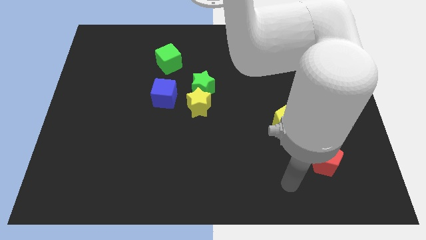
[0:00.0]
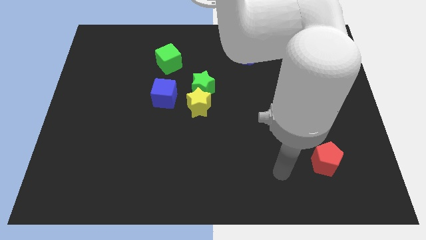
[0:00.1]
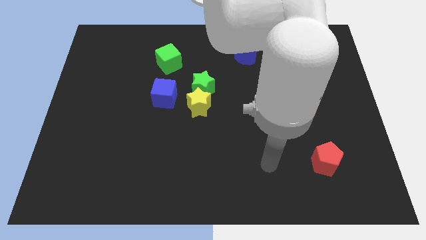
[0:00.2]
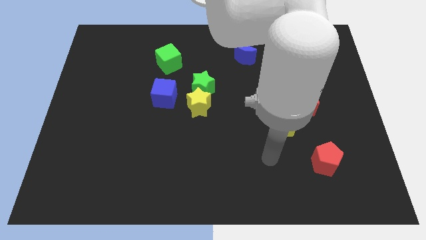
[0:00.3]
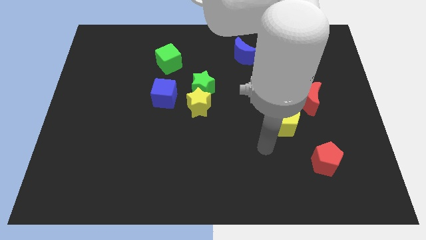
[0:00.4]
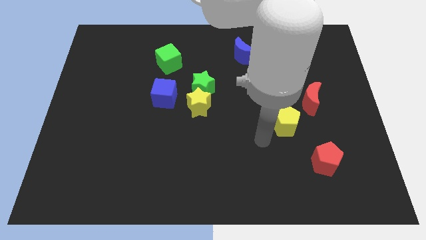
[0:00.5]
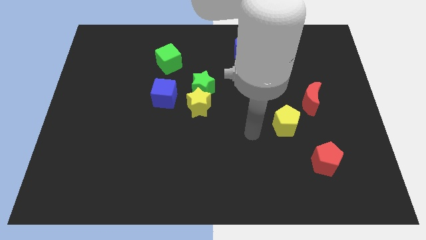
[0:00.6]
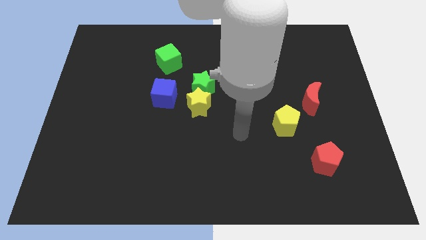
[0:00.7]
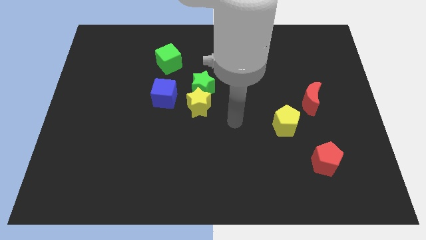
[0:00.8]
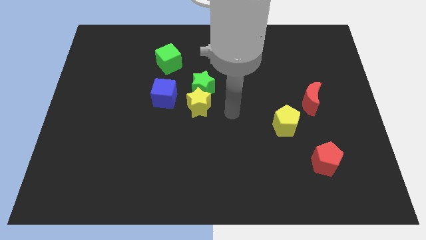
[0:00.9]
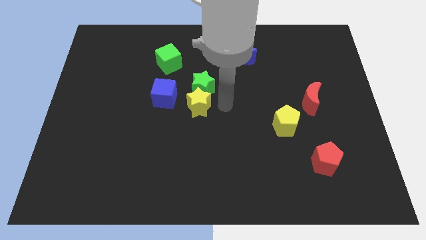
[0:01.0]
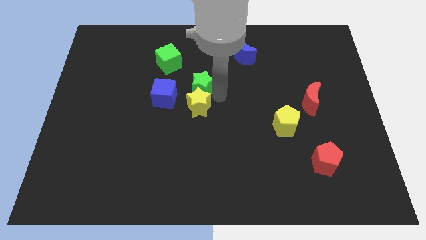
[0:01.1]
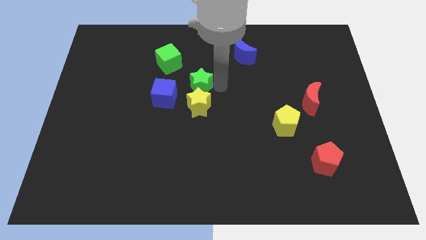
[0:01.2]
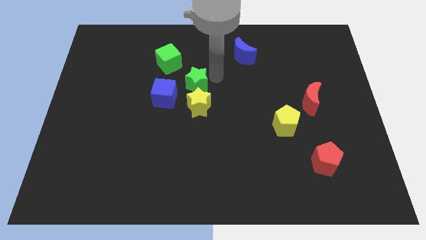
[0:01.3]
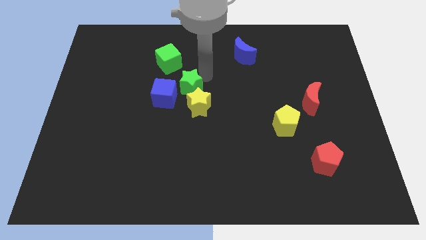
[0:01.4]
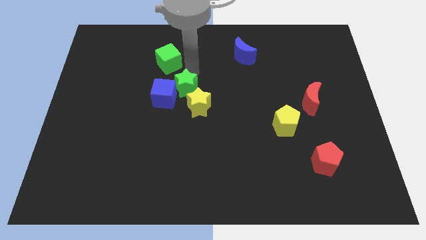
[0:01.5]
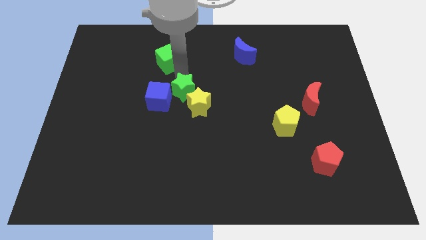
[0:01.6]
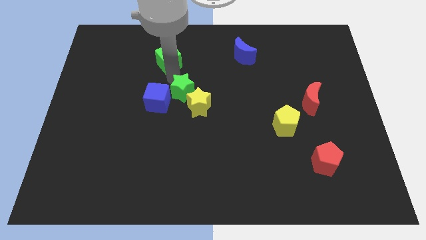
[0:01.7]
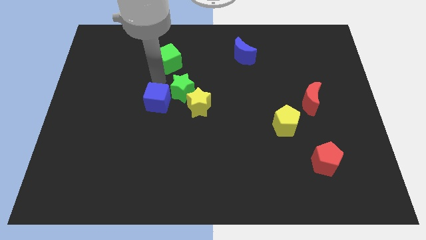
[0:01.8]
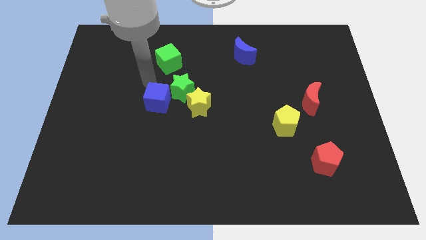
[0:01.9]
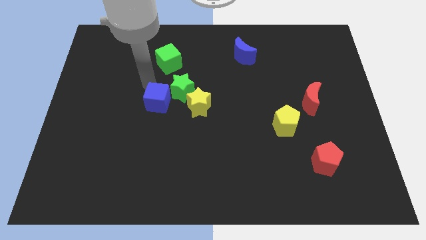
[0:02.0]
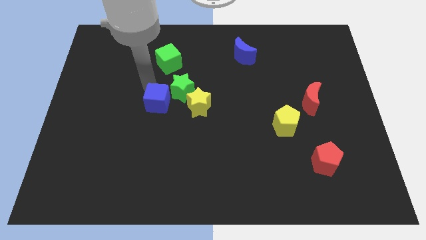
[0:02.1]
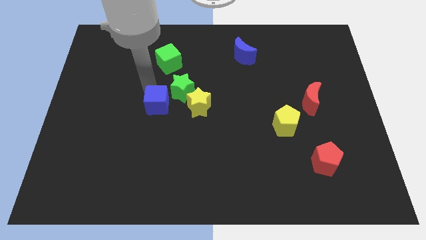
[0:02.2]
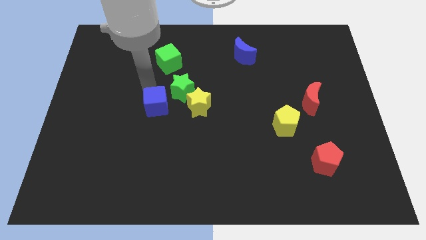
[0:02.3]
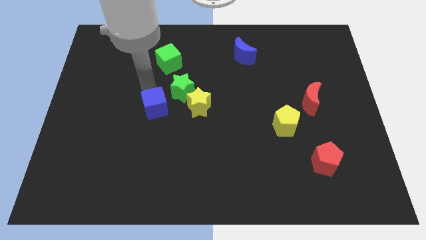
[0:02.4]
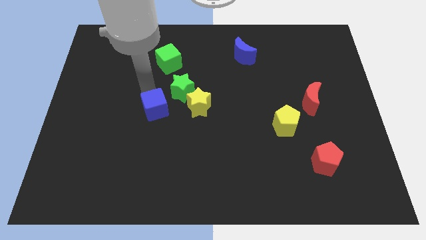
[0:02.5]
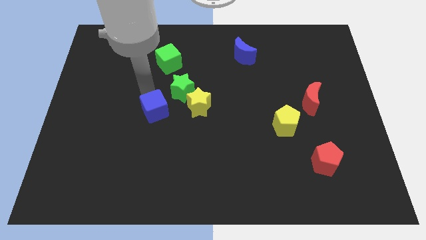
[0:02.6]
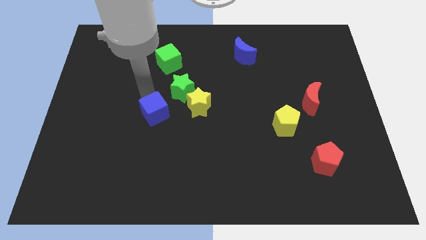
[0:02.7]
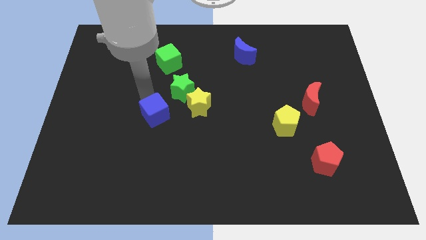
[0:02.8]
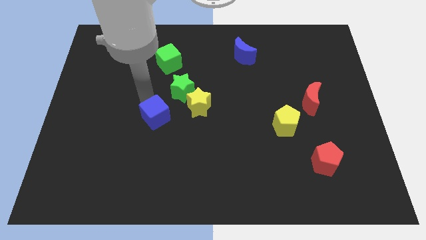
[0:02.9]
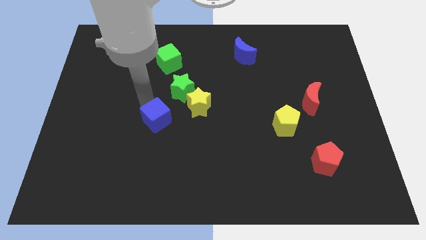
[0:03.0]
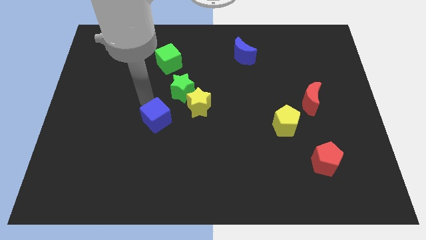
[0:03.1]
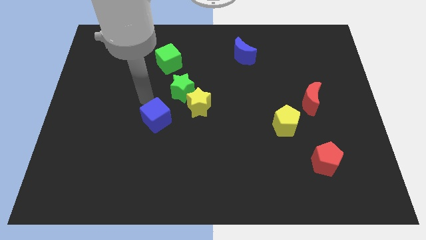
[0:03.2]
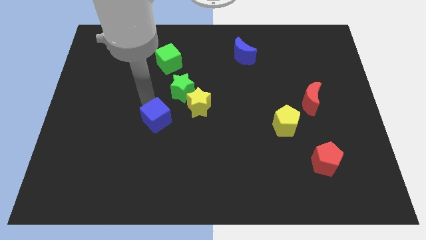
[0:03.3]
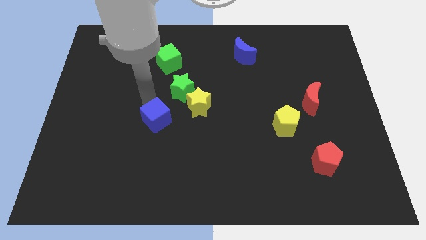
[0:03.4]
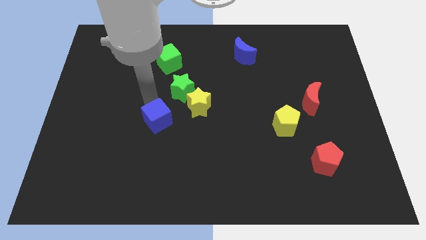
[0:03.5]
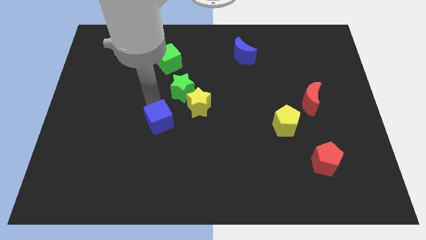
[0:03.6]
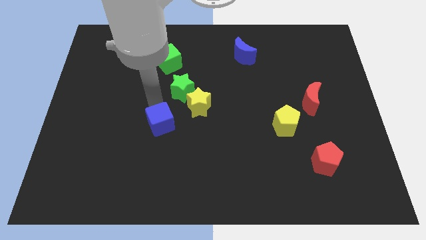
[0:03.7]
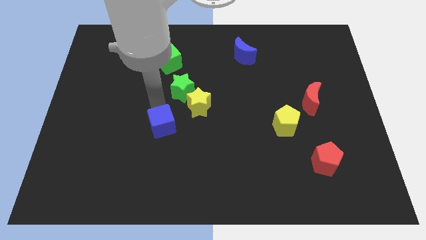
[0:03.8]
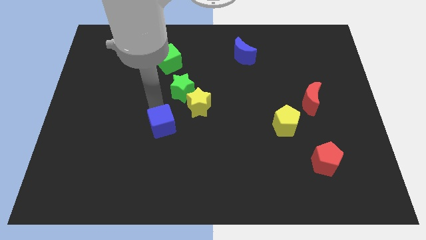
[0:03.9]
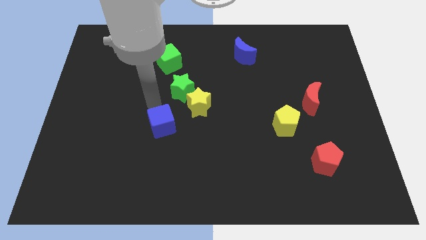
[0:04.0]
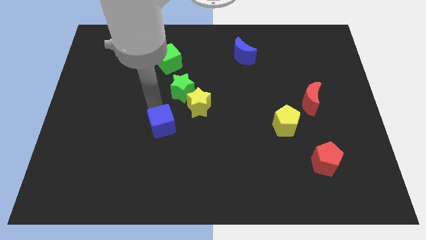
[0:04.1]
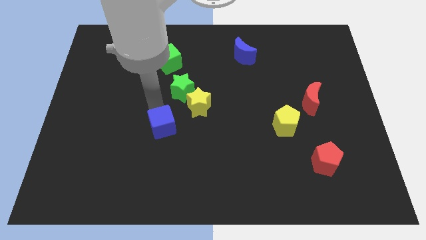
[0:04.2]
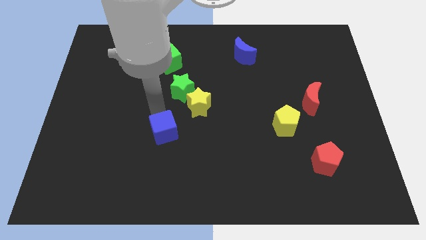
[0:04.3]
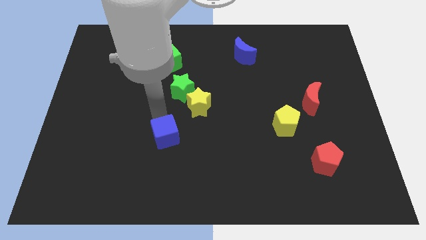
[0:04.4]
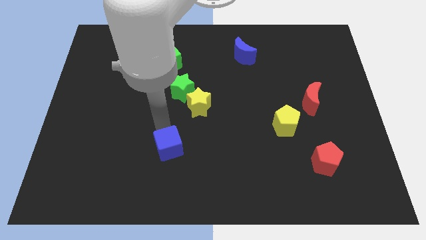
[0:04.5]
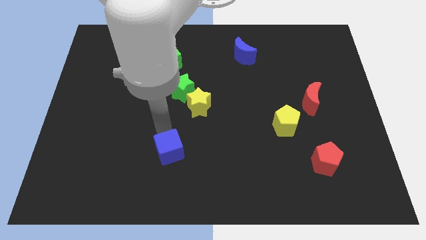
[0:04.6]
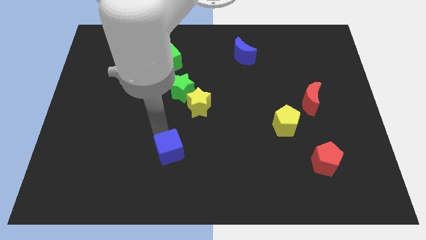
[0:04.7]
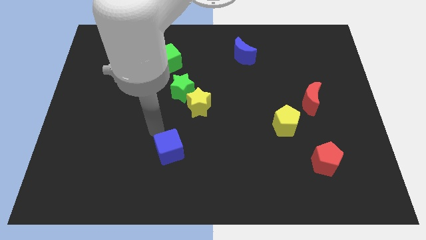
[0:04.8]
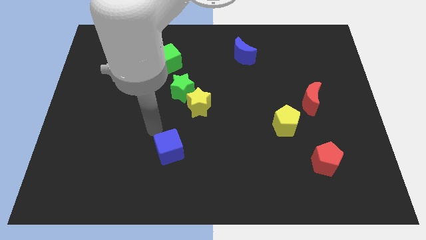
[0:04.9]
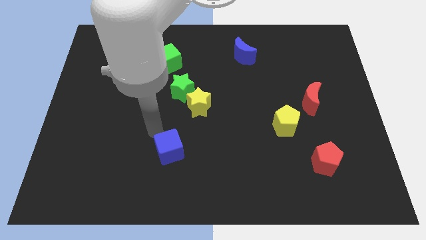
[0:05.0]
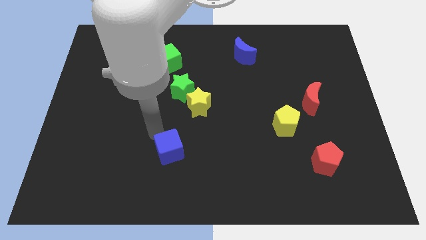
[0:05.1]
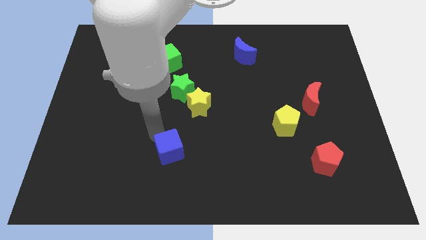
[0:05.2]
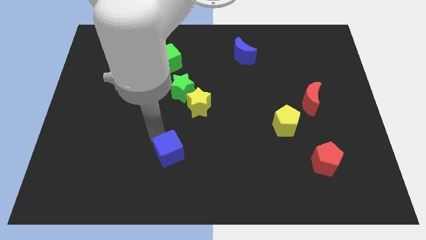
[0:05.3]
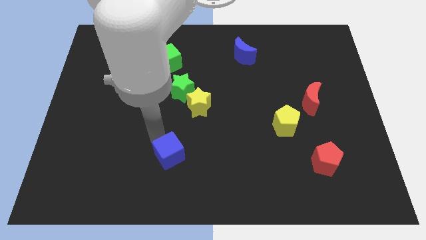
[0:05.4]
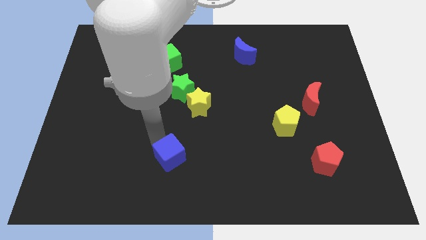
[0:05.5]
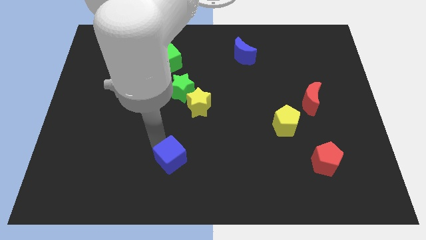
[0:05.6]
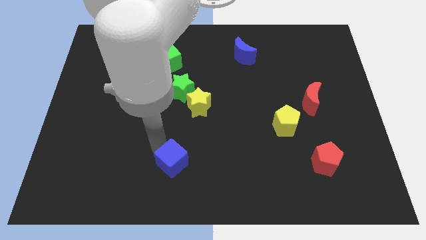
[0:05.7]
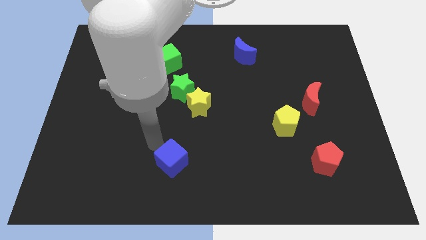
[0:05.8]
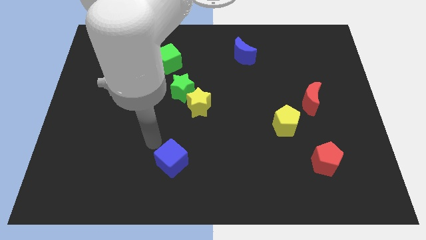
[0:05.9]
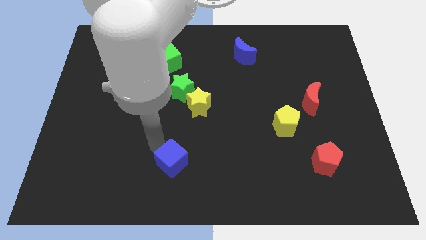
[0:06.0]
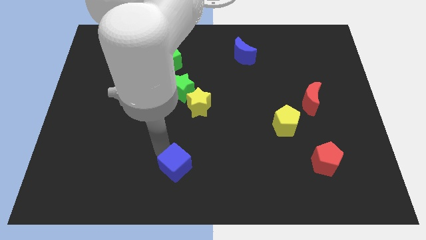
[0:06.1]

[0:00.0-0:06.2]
put the blue cube to the bottom side
